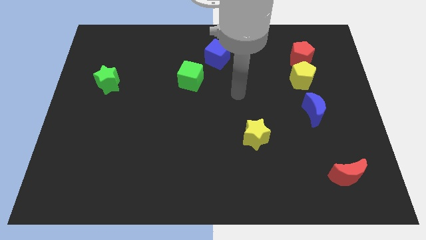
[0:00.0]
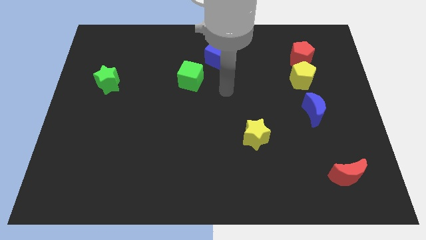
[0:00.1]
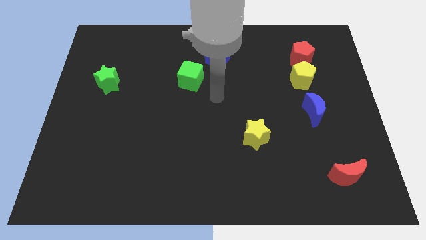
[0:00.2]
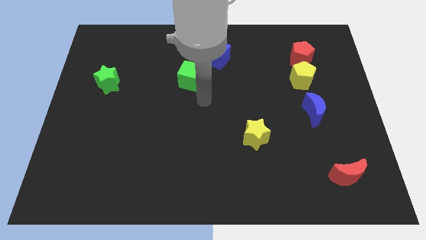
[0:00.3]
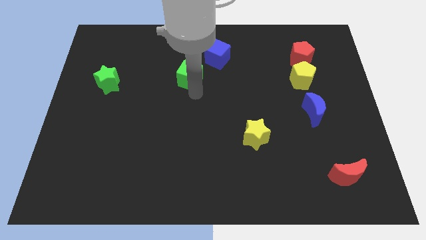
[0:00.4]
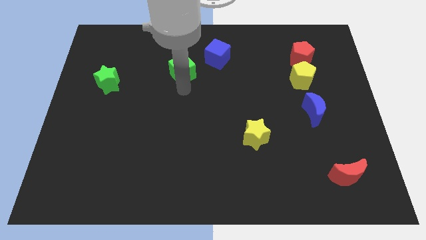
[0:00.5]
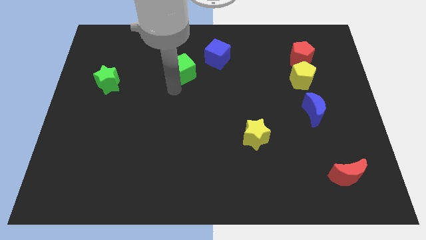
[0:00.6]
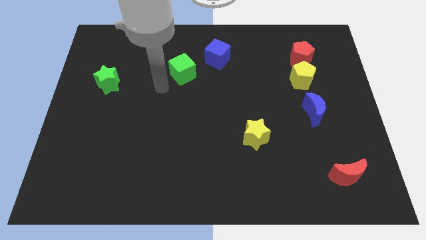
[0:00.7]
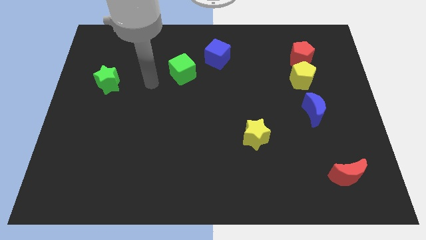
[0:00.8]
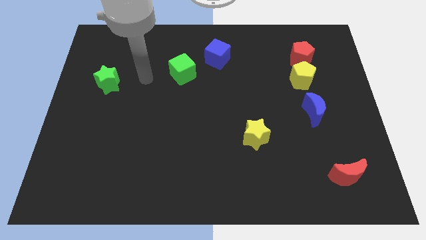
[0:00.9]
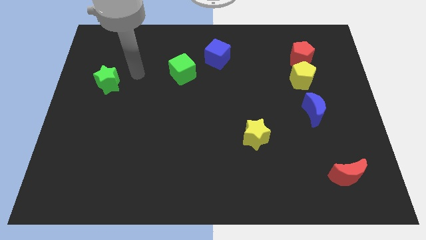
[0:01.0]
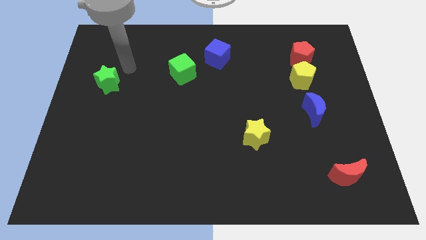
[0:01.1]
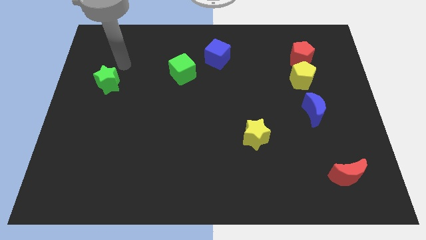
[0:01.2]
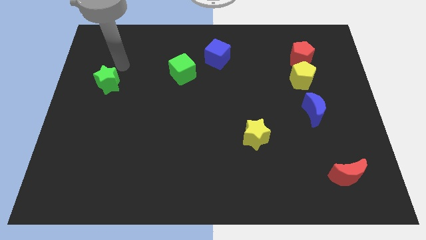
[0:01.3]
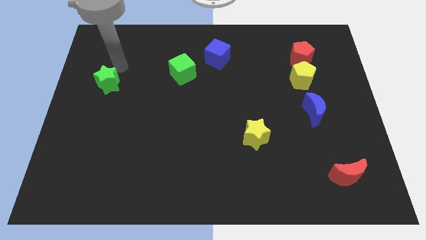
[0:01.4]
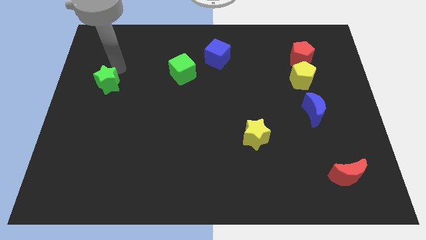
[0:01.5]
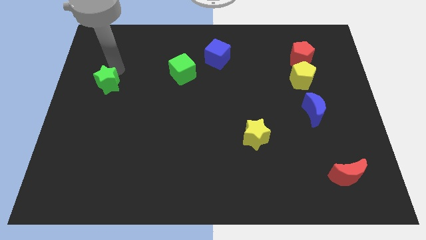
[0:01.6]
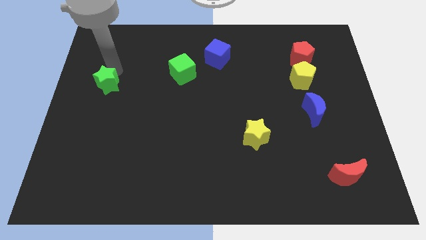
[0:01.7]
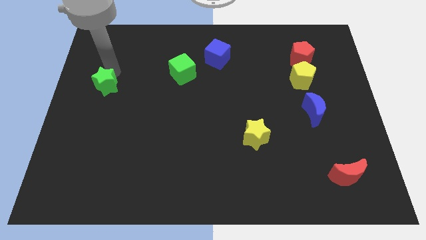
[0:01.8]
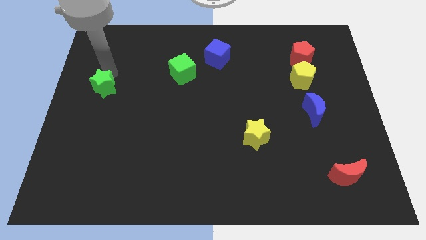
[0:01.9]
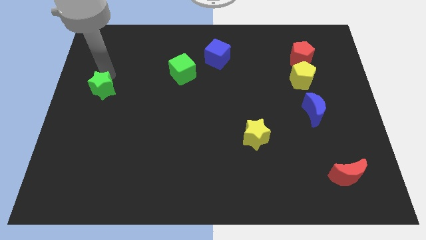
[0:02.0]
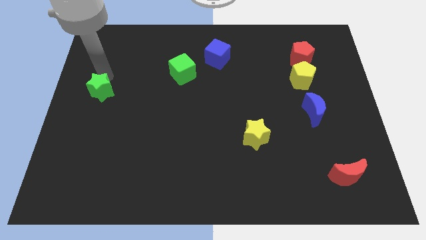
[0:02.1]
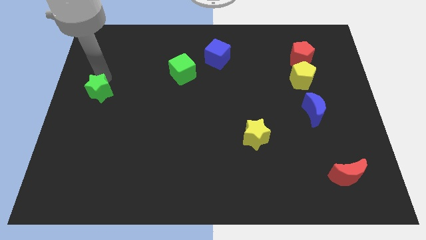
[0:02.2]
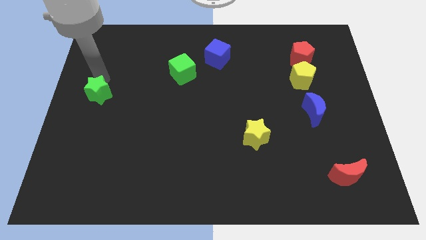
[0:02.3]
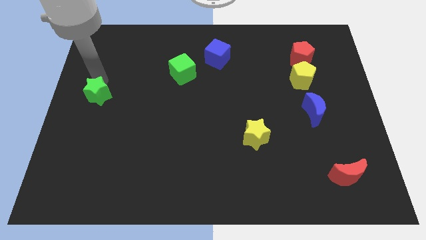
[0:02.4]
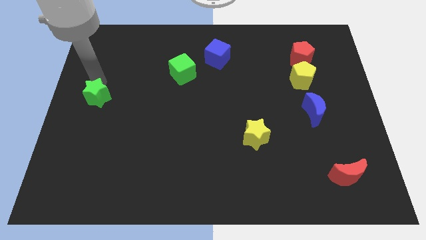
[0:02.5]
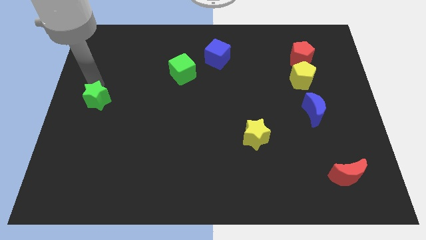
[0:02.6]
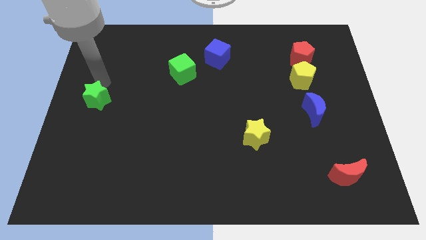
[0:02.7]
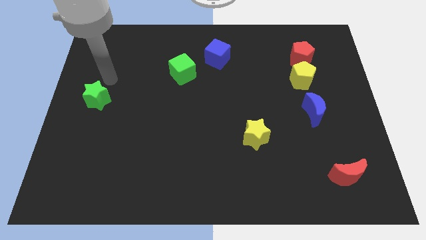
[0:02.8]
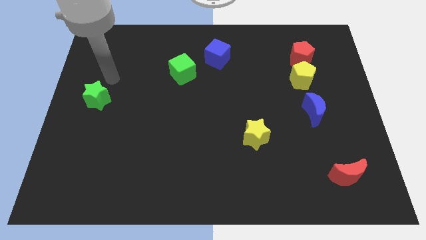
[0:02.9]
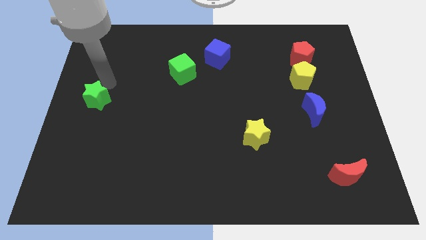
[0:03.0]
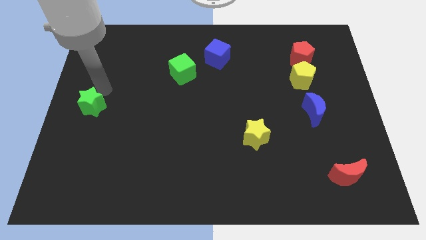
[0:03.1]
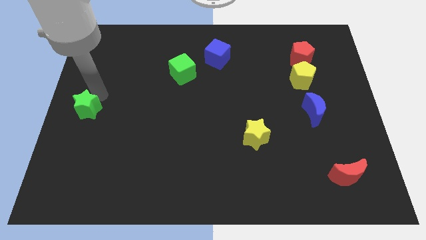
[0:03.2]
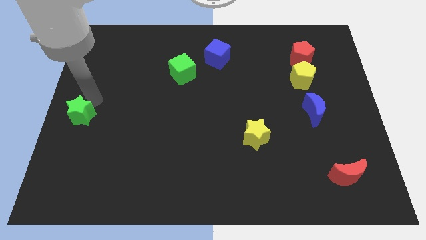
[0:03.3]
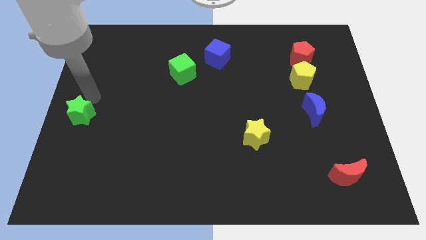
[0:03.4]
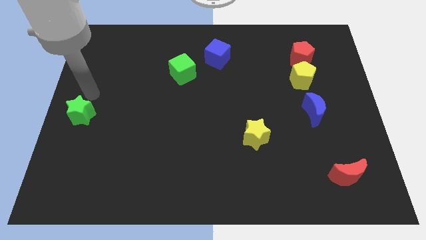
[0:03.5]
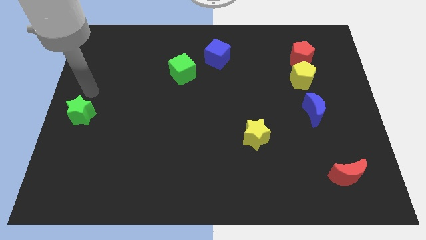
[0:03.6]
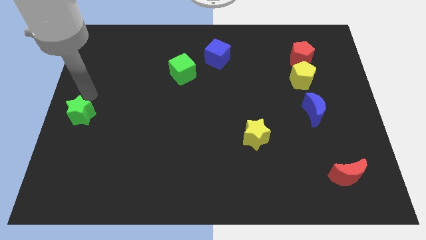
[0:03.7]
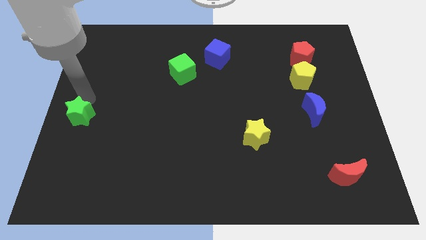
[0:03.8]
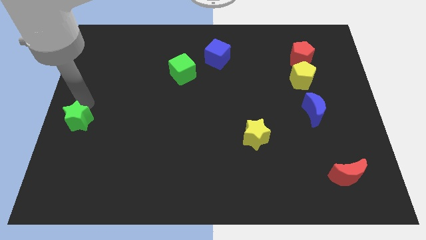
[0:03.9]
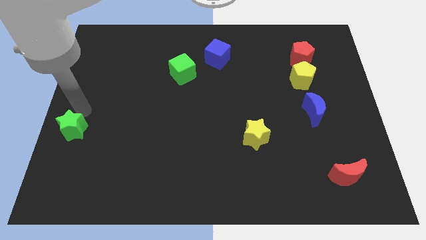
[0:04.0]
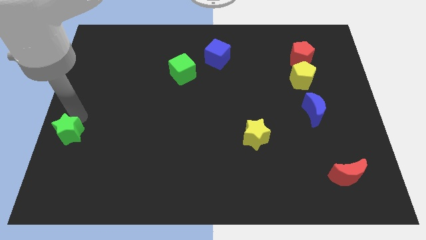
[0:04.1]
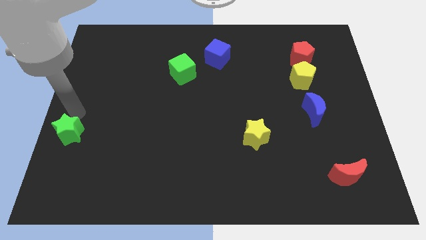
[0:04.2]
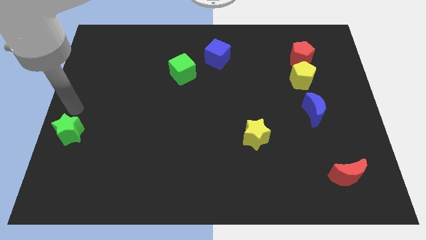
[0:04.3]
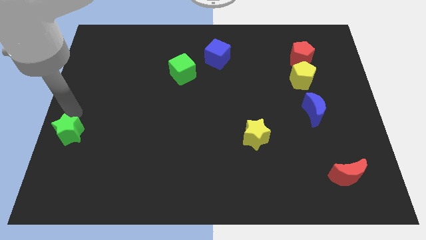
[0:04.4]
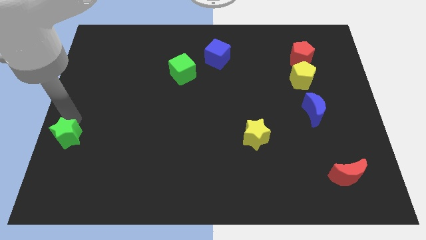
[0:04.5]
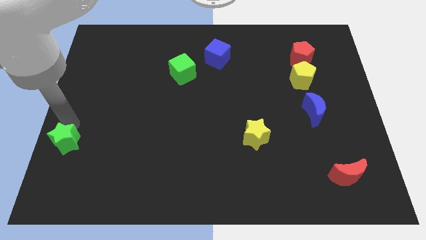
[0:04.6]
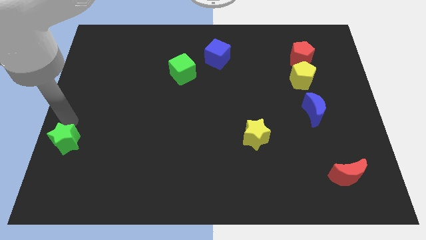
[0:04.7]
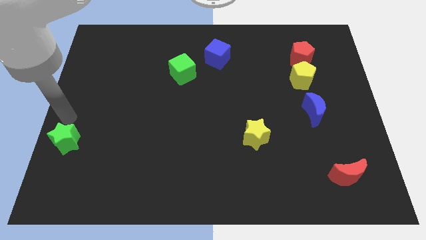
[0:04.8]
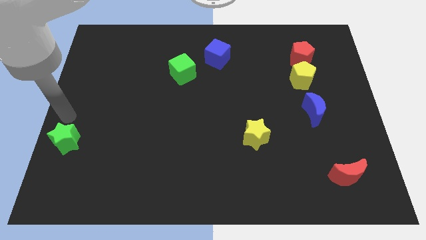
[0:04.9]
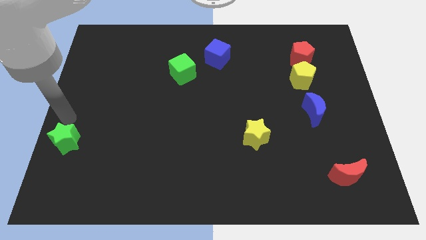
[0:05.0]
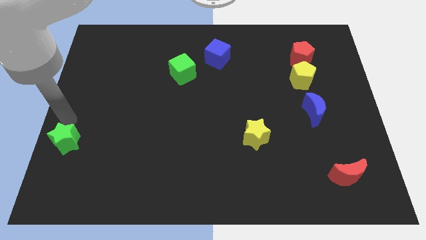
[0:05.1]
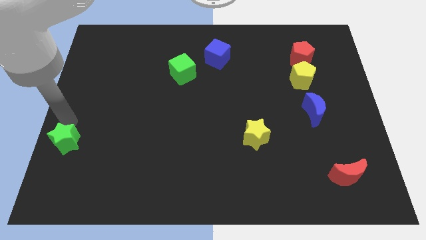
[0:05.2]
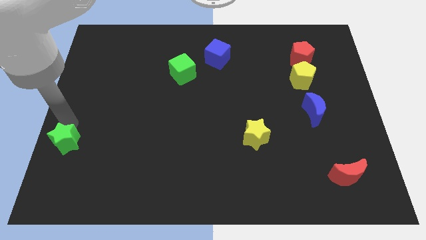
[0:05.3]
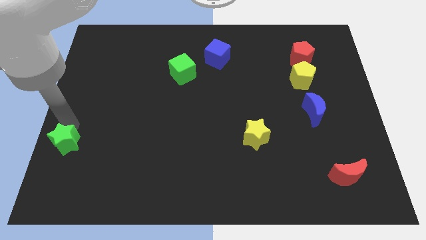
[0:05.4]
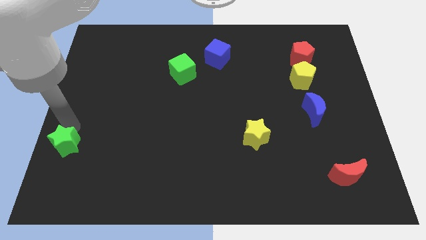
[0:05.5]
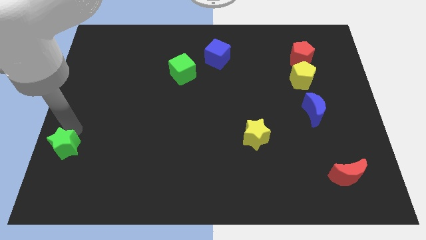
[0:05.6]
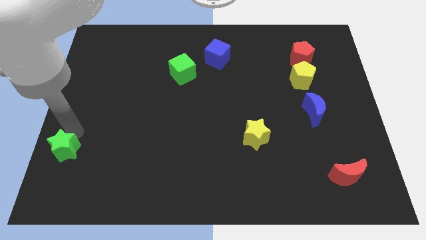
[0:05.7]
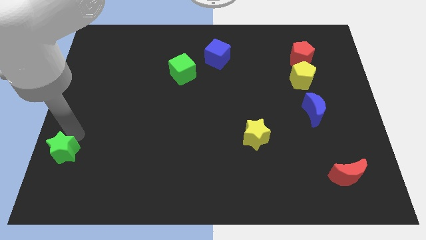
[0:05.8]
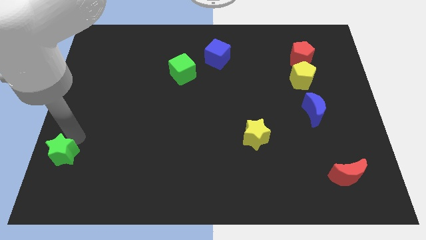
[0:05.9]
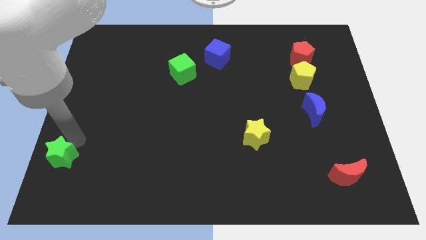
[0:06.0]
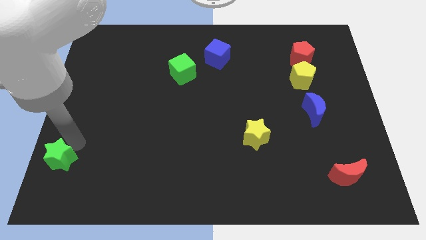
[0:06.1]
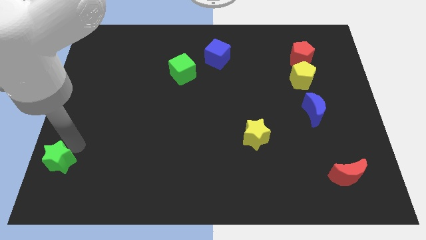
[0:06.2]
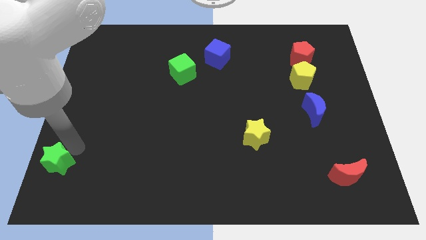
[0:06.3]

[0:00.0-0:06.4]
push the green star to the bottom left of the board
